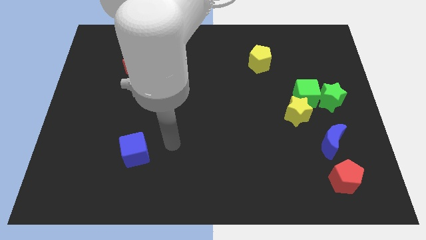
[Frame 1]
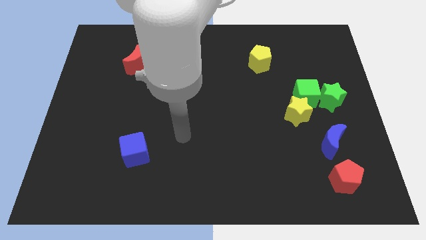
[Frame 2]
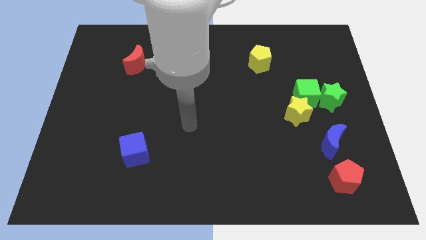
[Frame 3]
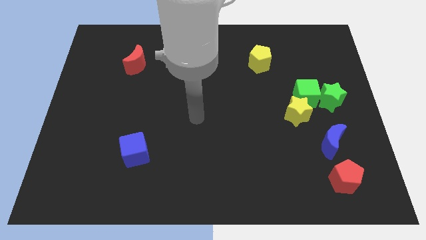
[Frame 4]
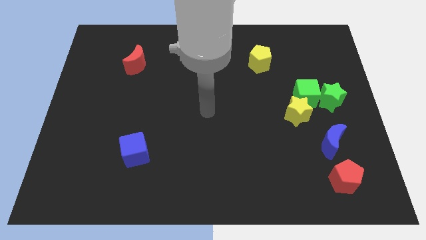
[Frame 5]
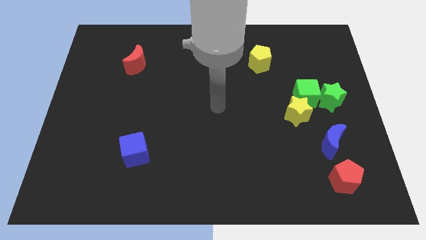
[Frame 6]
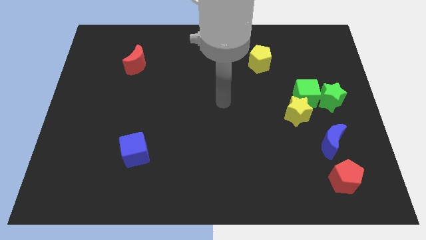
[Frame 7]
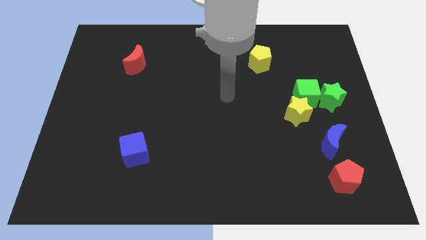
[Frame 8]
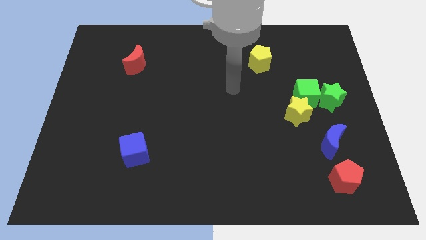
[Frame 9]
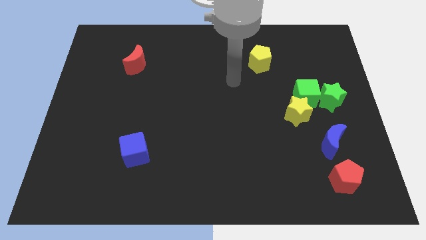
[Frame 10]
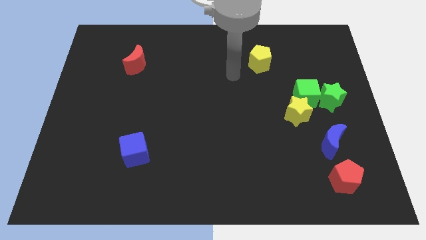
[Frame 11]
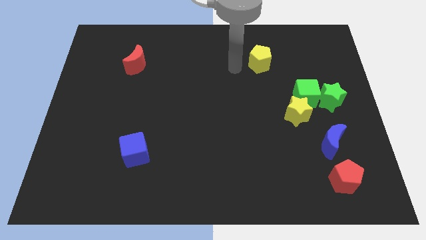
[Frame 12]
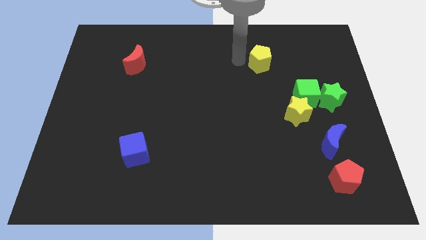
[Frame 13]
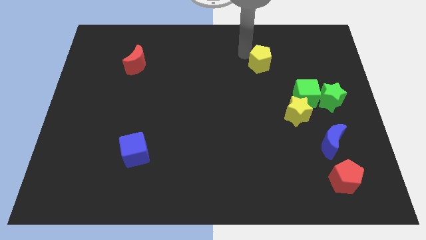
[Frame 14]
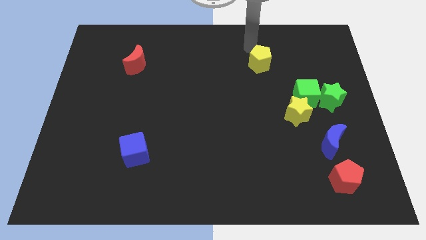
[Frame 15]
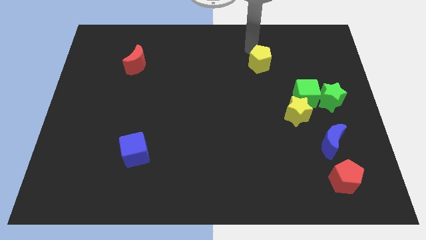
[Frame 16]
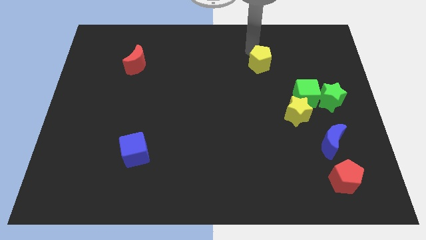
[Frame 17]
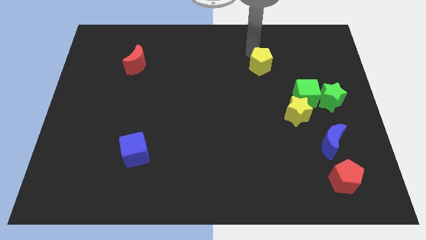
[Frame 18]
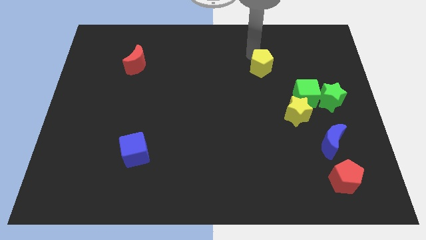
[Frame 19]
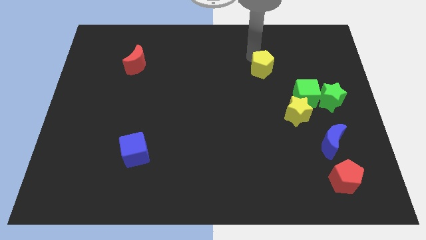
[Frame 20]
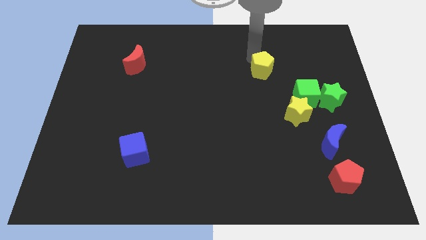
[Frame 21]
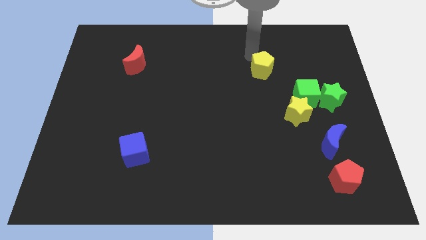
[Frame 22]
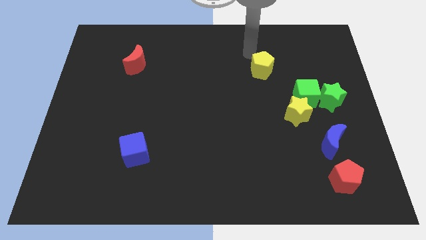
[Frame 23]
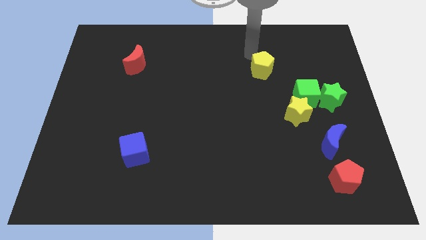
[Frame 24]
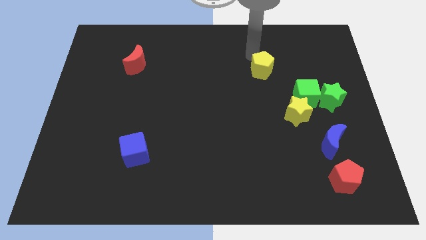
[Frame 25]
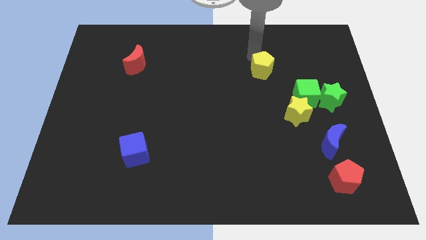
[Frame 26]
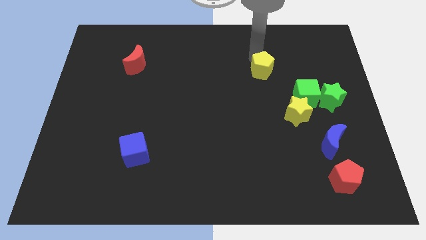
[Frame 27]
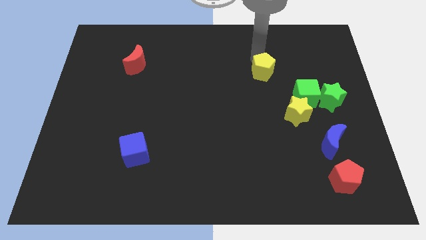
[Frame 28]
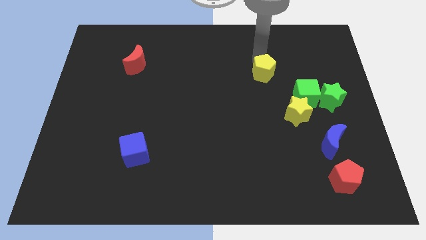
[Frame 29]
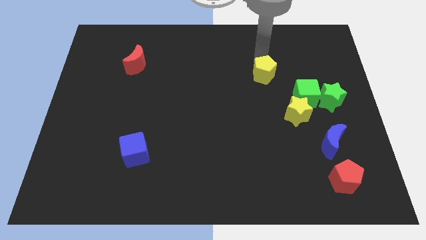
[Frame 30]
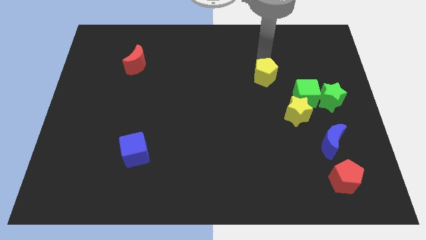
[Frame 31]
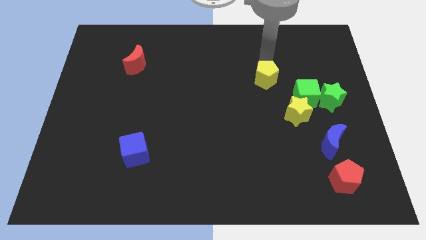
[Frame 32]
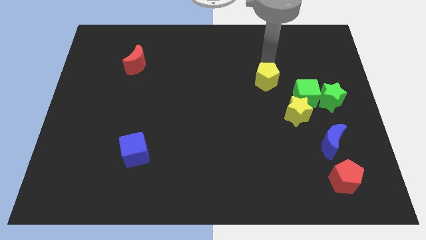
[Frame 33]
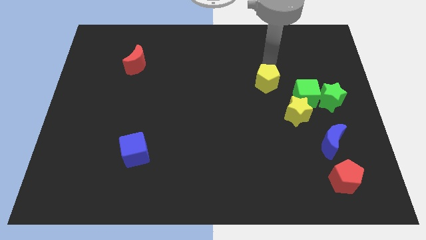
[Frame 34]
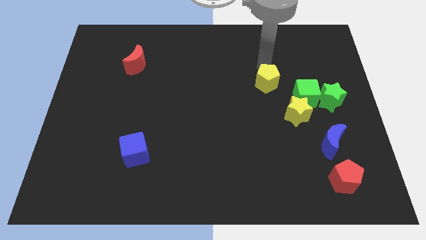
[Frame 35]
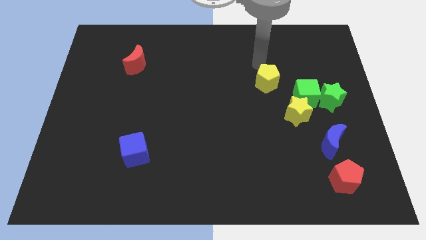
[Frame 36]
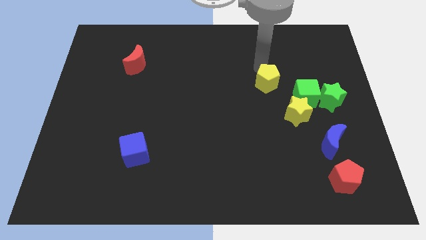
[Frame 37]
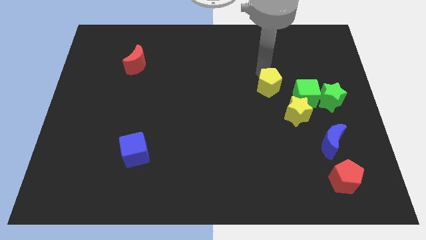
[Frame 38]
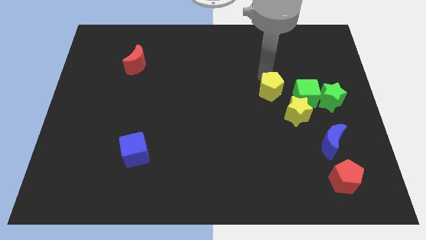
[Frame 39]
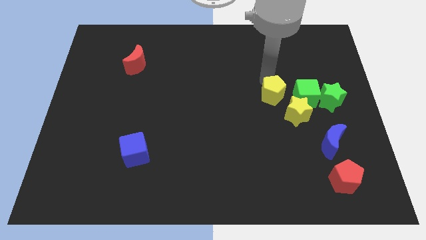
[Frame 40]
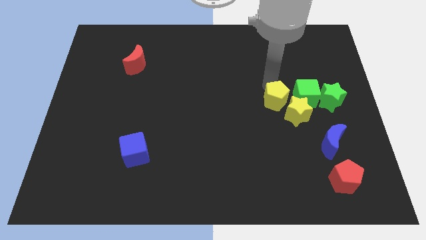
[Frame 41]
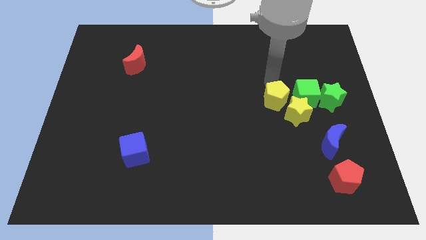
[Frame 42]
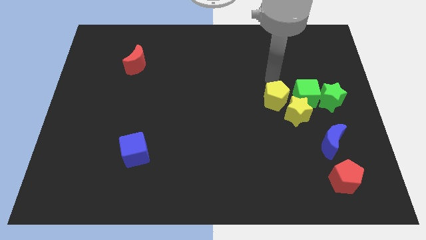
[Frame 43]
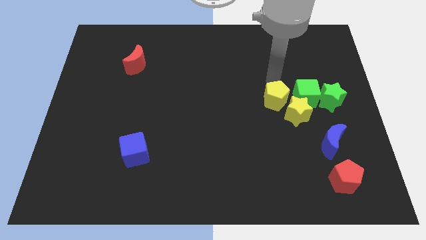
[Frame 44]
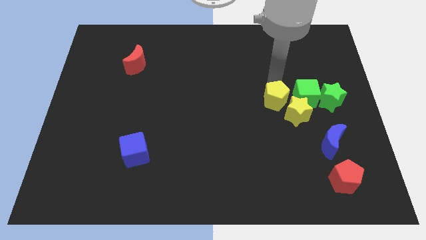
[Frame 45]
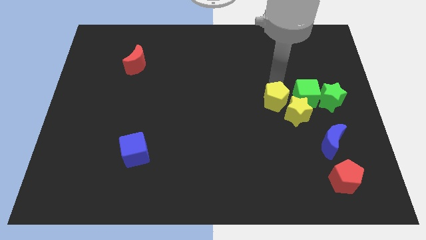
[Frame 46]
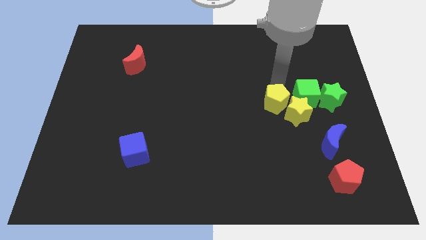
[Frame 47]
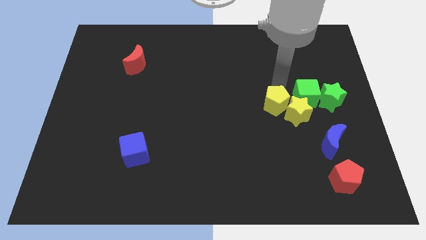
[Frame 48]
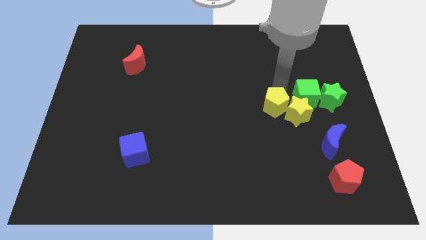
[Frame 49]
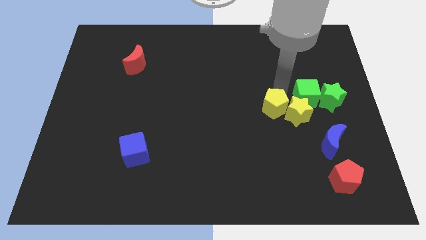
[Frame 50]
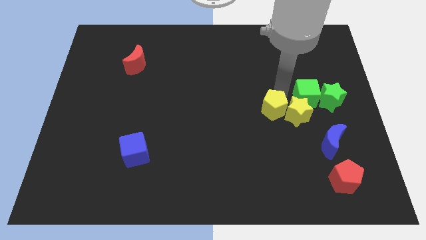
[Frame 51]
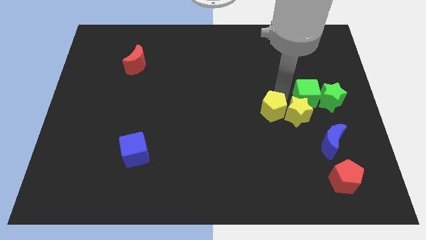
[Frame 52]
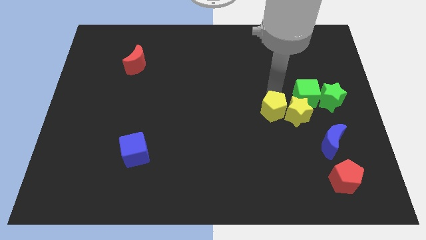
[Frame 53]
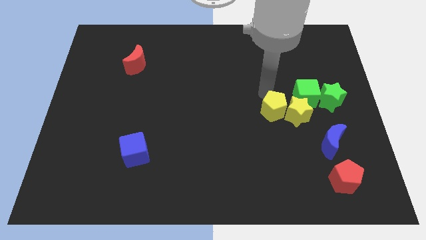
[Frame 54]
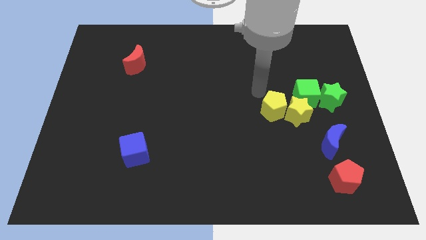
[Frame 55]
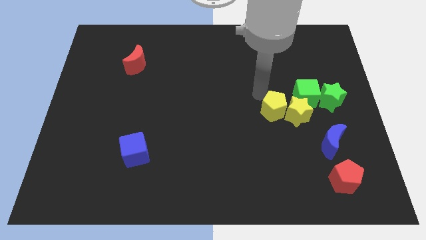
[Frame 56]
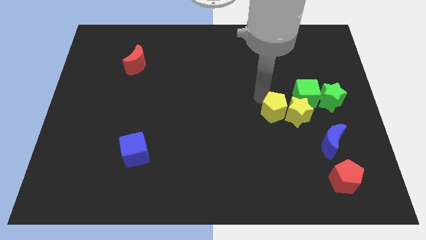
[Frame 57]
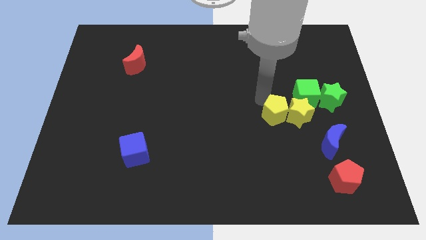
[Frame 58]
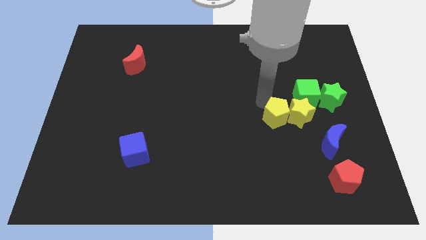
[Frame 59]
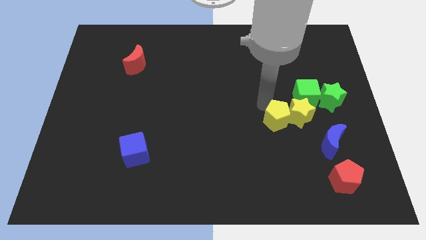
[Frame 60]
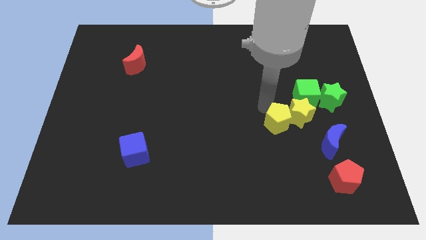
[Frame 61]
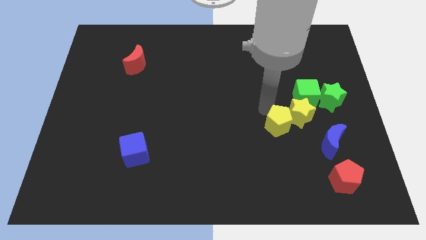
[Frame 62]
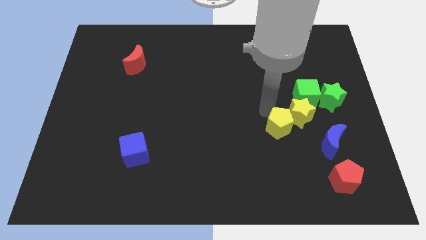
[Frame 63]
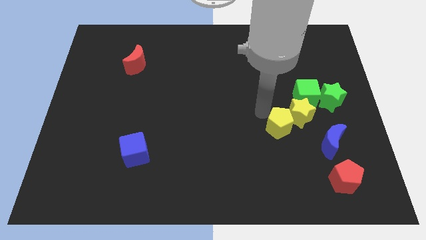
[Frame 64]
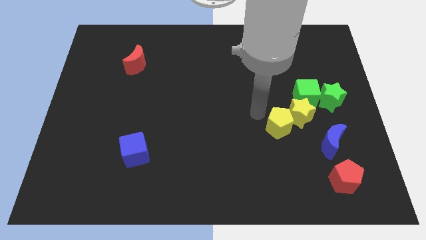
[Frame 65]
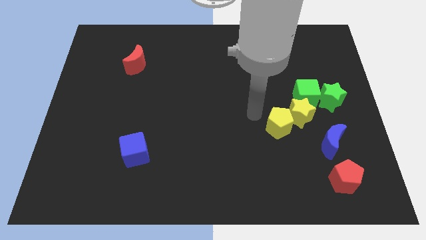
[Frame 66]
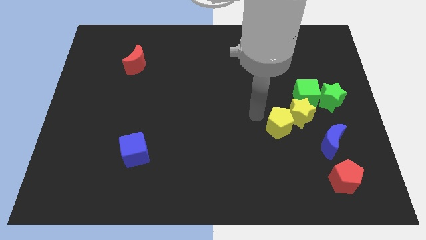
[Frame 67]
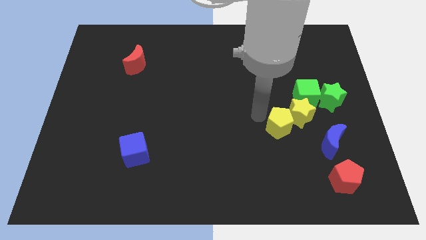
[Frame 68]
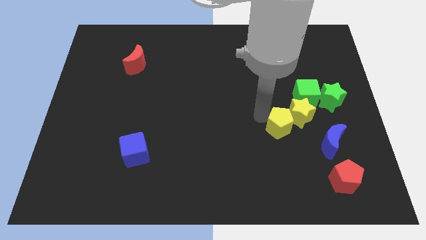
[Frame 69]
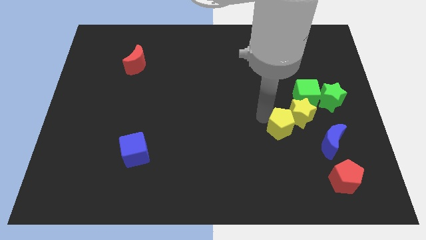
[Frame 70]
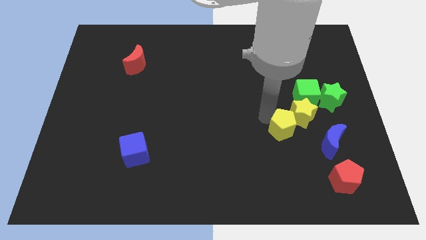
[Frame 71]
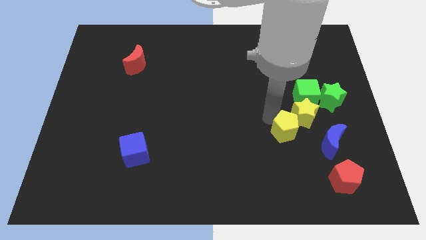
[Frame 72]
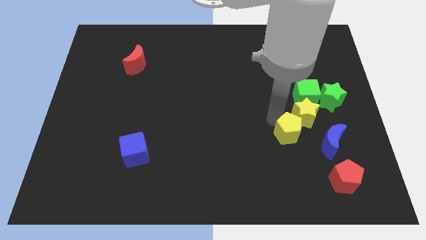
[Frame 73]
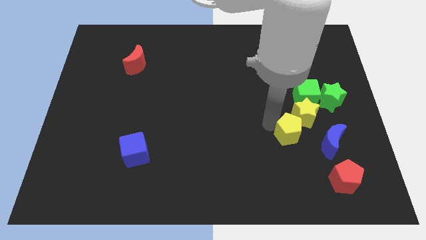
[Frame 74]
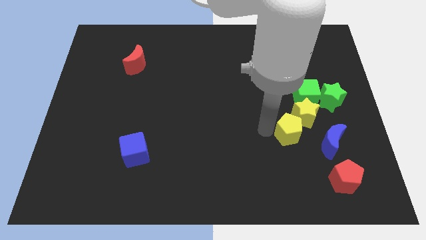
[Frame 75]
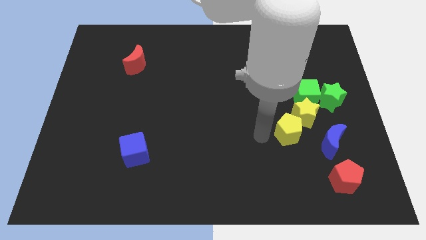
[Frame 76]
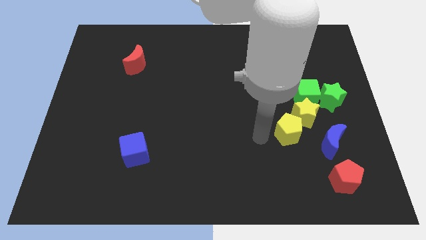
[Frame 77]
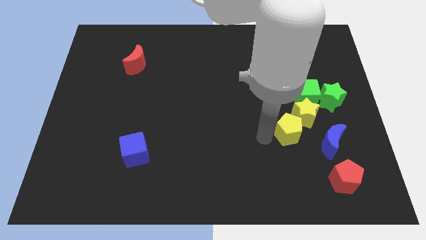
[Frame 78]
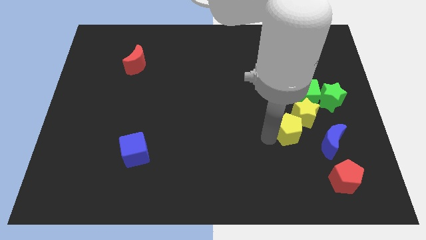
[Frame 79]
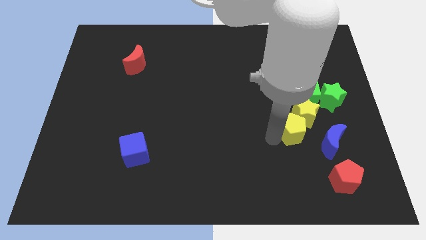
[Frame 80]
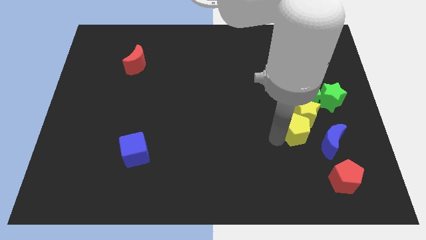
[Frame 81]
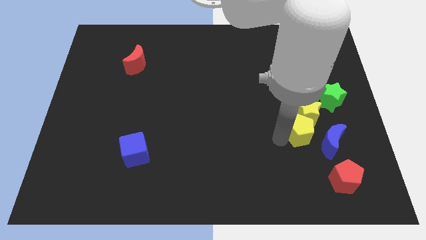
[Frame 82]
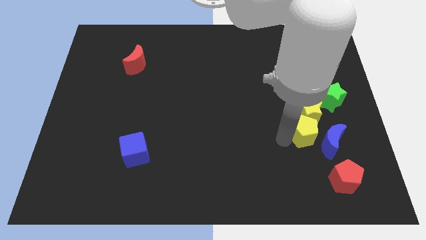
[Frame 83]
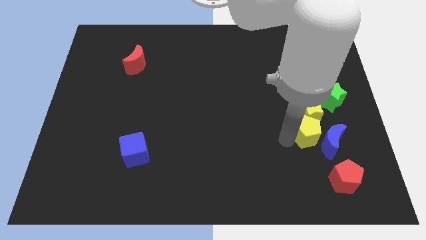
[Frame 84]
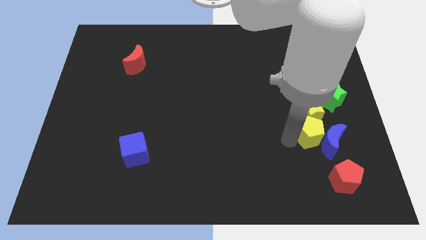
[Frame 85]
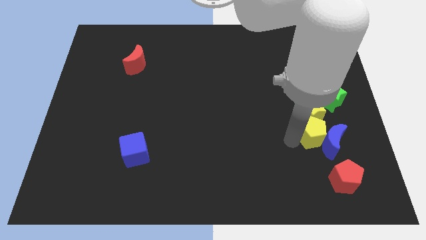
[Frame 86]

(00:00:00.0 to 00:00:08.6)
put the yellow pentagon above the red pentagon
